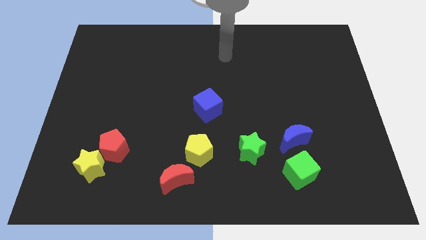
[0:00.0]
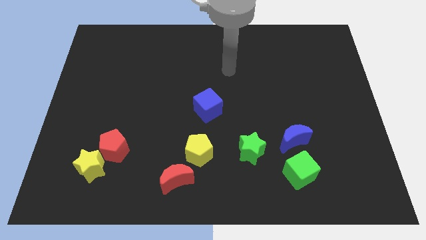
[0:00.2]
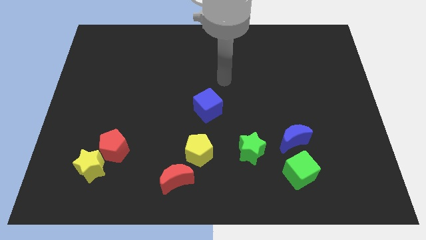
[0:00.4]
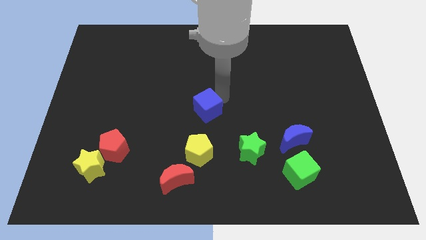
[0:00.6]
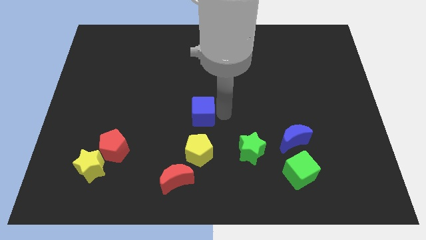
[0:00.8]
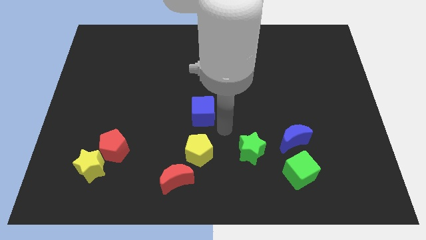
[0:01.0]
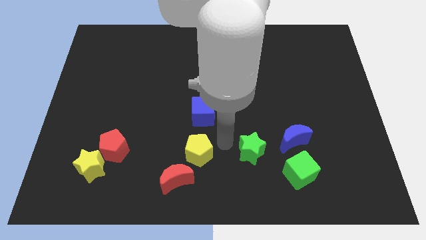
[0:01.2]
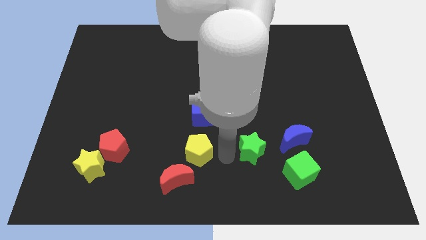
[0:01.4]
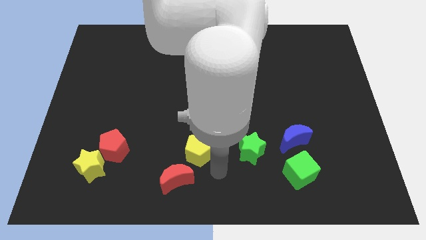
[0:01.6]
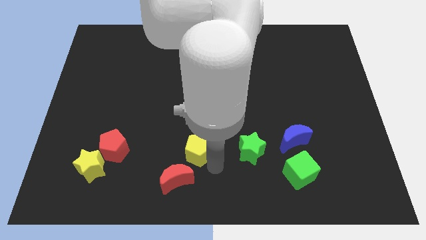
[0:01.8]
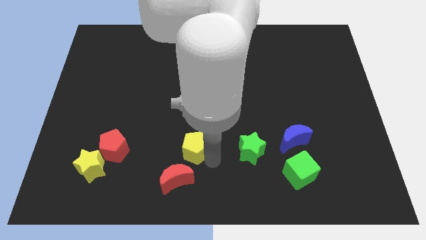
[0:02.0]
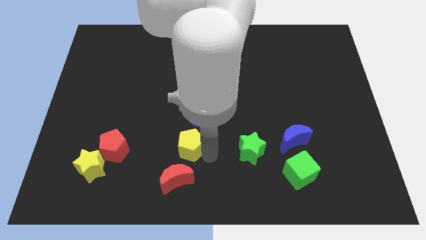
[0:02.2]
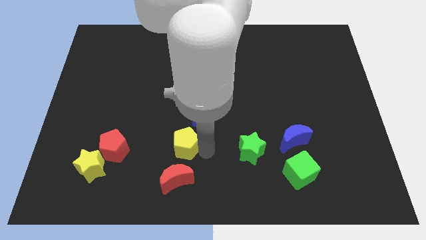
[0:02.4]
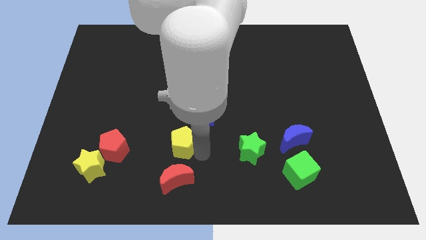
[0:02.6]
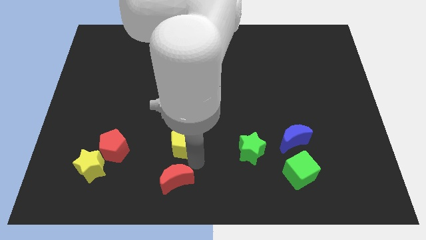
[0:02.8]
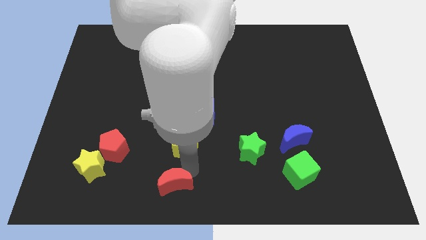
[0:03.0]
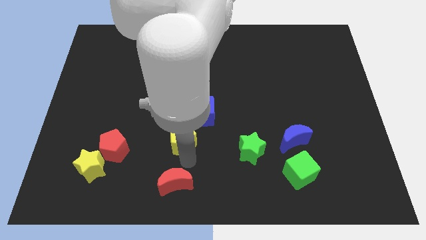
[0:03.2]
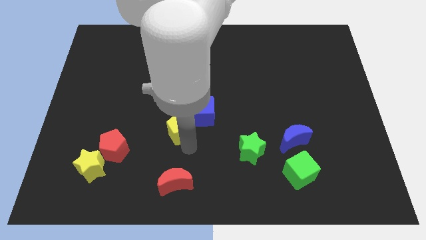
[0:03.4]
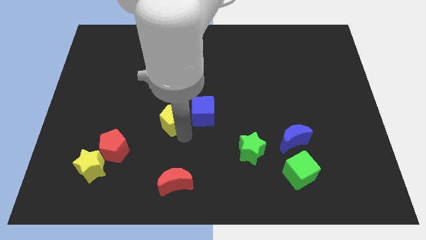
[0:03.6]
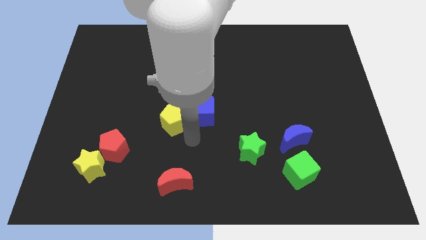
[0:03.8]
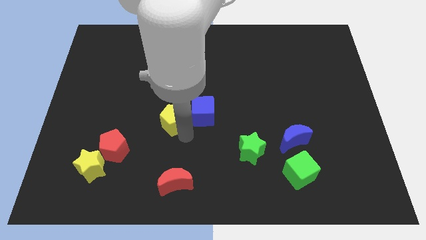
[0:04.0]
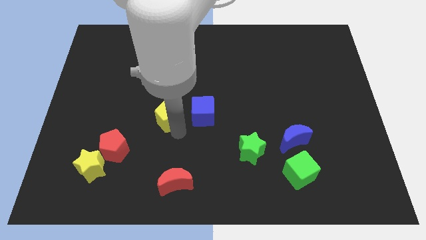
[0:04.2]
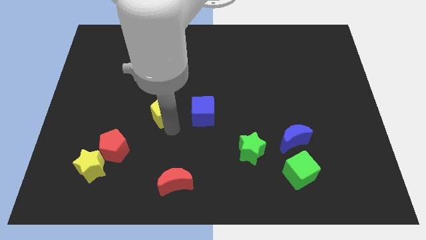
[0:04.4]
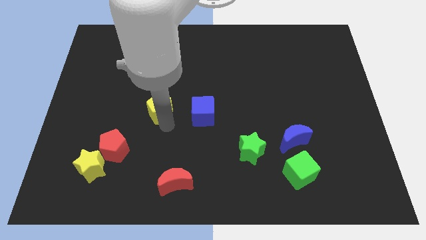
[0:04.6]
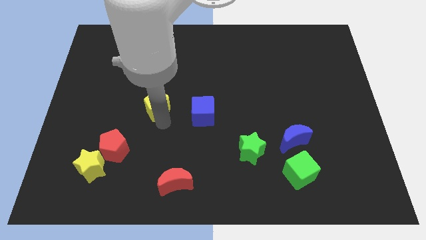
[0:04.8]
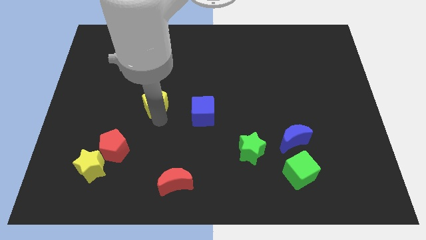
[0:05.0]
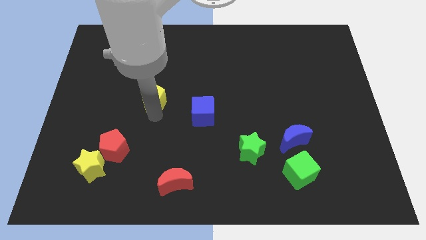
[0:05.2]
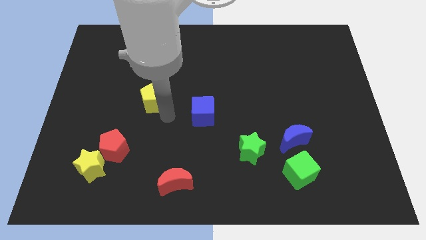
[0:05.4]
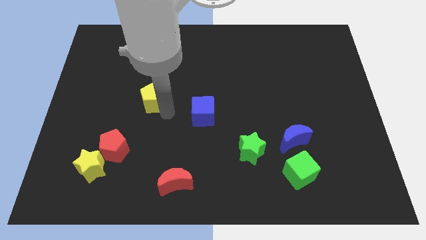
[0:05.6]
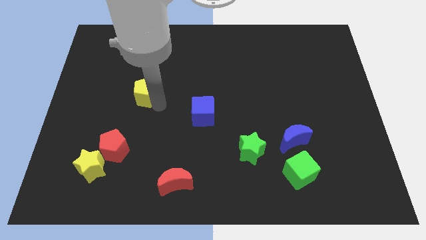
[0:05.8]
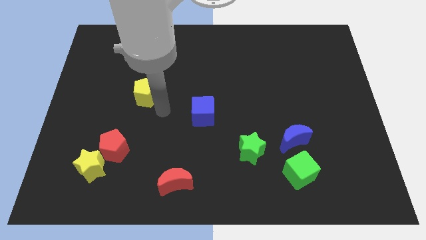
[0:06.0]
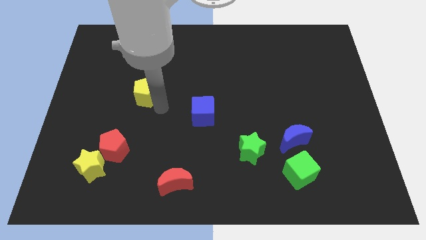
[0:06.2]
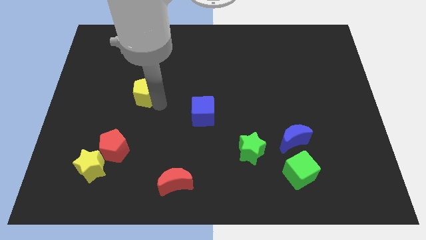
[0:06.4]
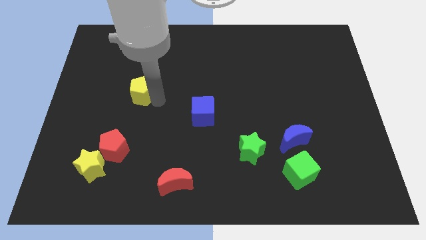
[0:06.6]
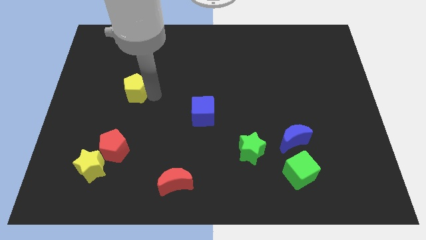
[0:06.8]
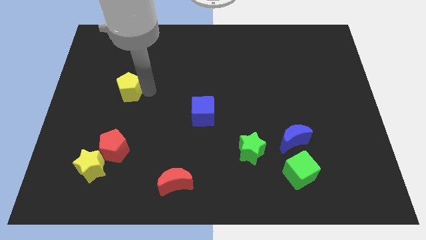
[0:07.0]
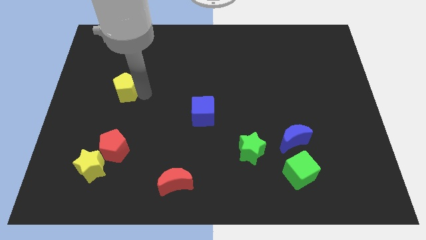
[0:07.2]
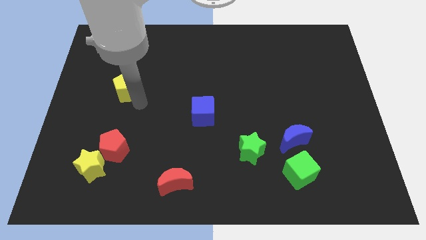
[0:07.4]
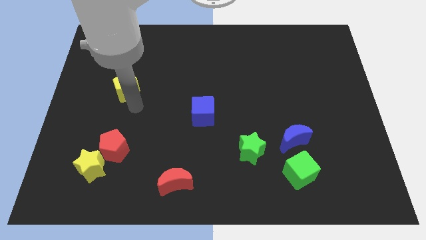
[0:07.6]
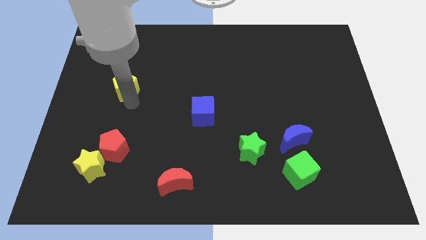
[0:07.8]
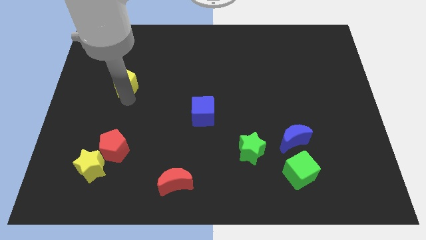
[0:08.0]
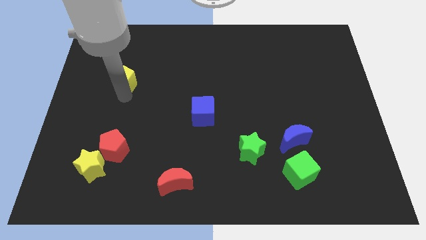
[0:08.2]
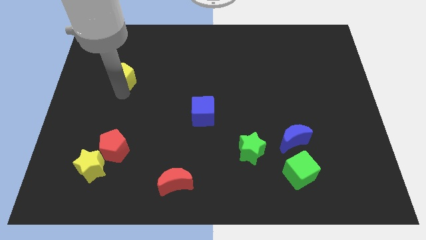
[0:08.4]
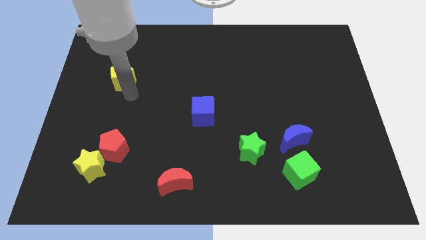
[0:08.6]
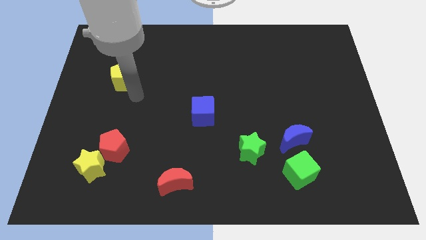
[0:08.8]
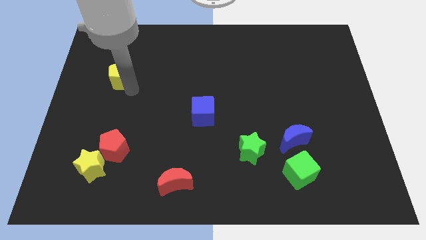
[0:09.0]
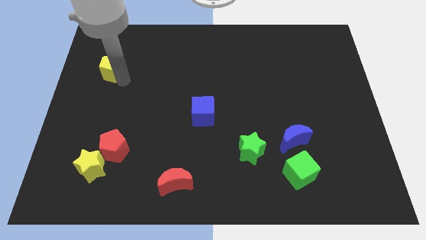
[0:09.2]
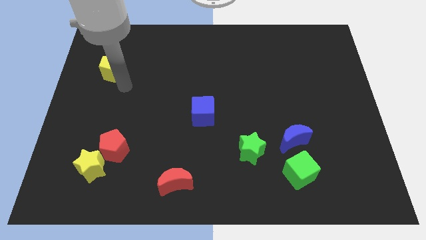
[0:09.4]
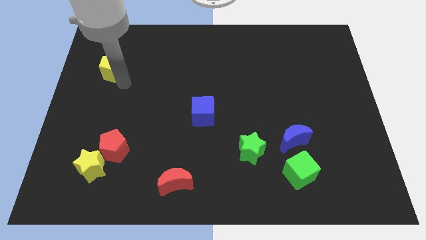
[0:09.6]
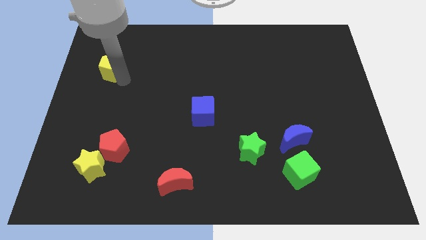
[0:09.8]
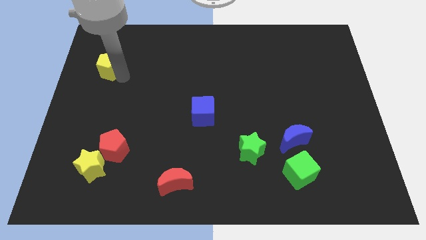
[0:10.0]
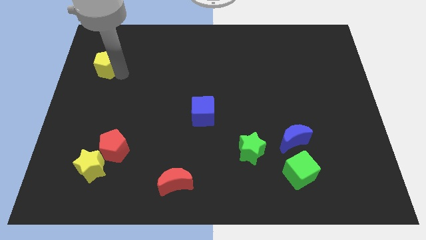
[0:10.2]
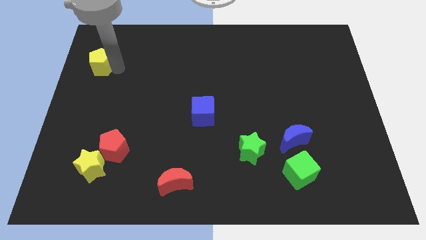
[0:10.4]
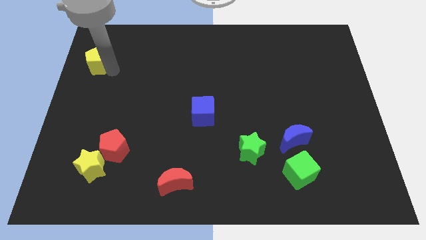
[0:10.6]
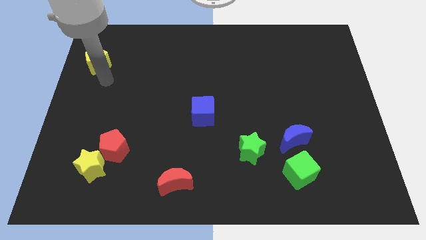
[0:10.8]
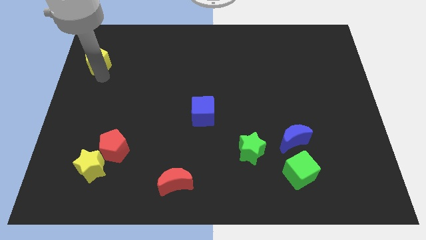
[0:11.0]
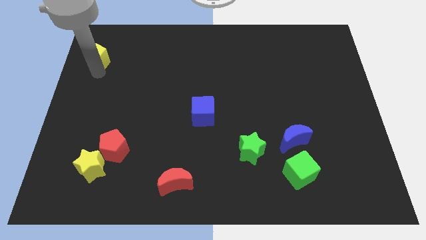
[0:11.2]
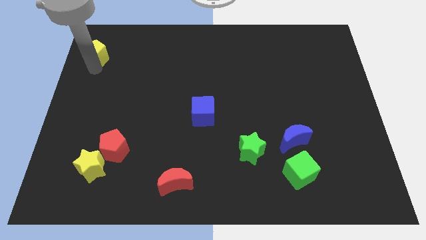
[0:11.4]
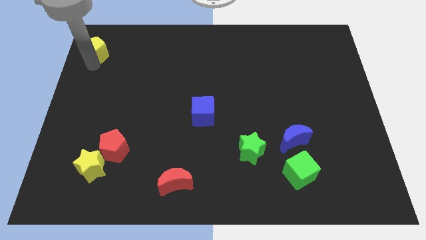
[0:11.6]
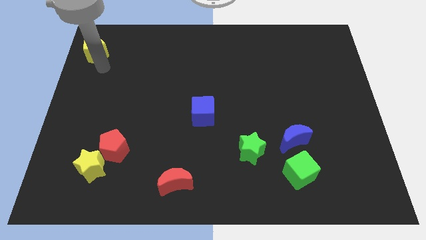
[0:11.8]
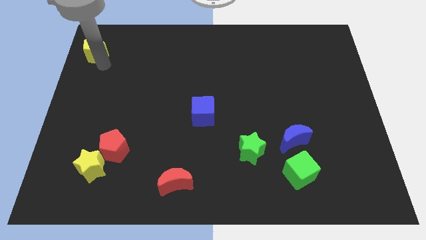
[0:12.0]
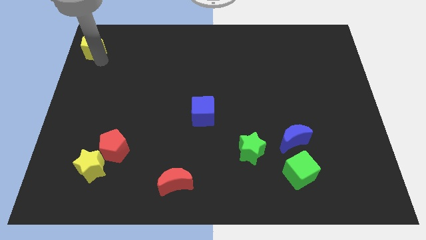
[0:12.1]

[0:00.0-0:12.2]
move the yellow pentagon to the top left corner

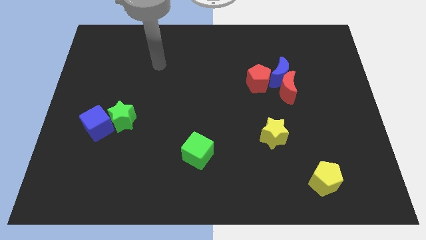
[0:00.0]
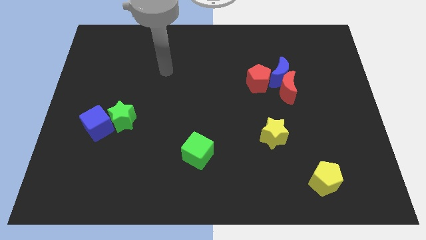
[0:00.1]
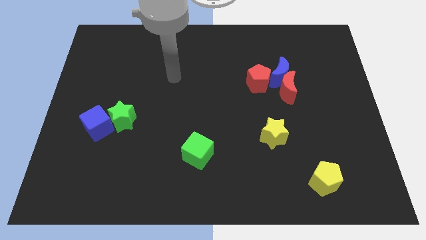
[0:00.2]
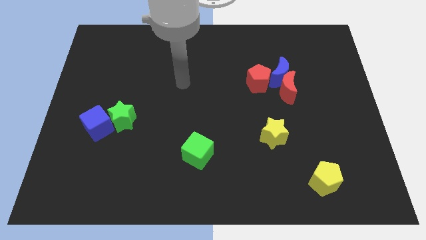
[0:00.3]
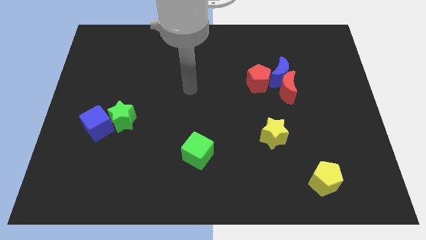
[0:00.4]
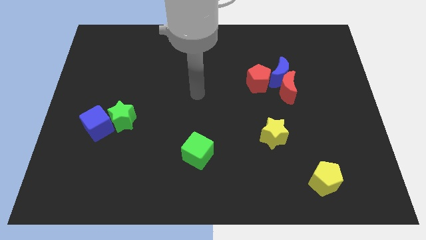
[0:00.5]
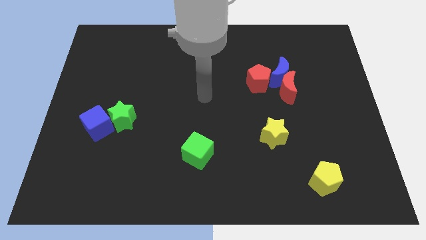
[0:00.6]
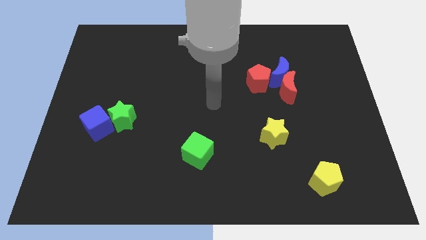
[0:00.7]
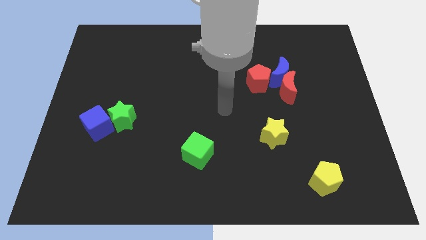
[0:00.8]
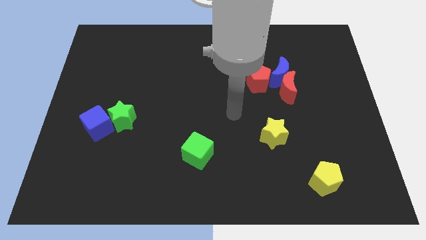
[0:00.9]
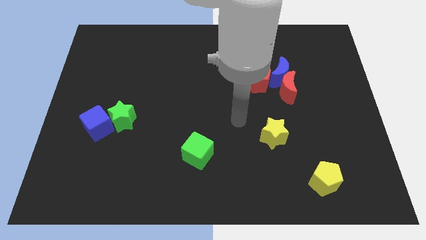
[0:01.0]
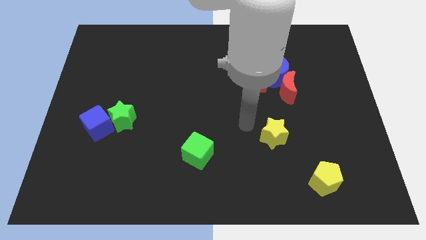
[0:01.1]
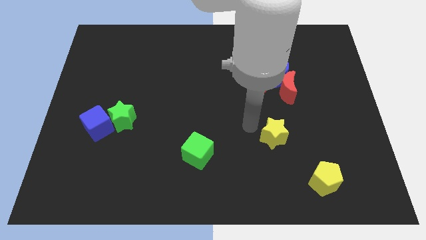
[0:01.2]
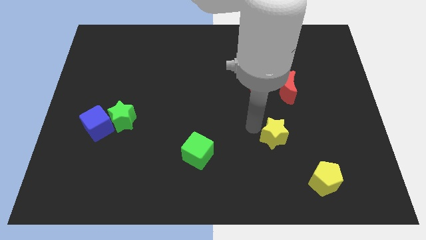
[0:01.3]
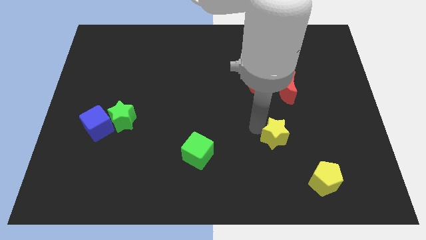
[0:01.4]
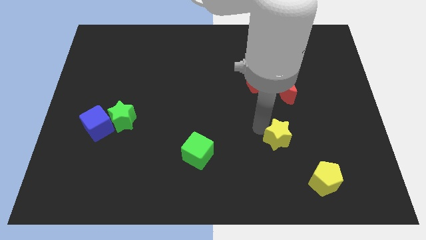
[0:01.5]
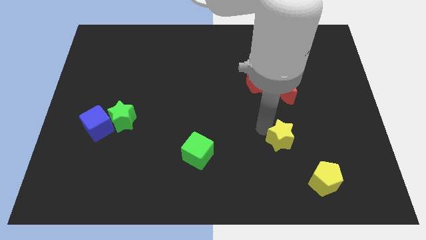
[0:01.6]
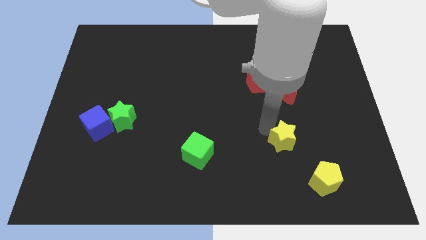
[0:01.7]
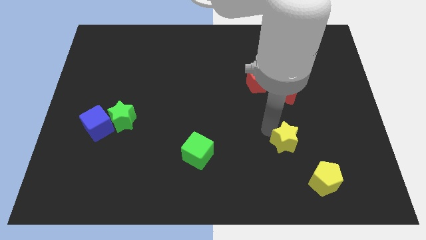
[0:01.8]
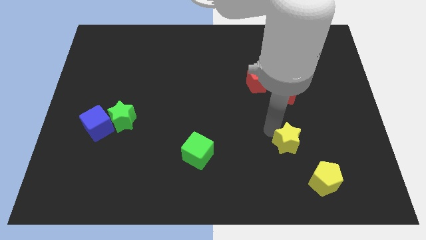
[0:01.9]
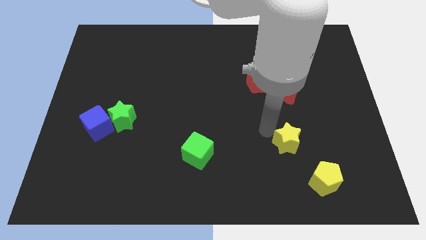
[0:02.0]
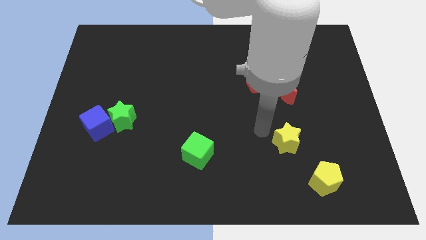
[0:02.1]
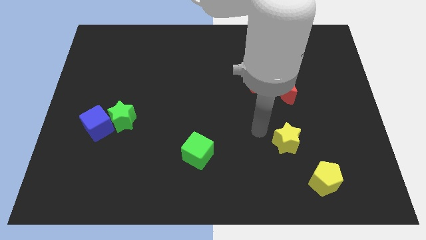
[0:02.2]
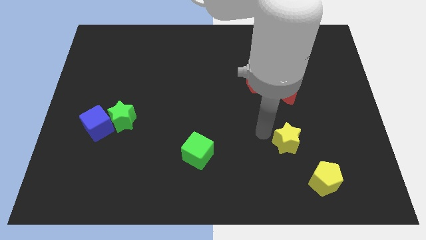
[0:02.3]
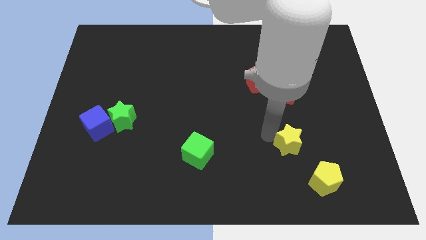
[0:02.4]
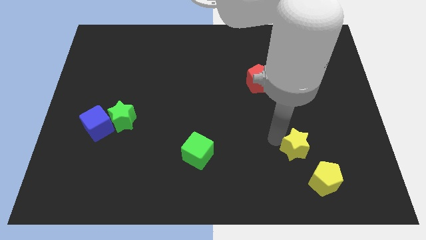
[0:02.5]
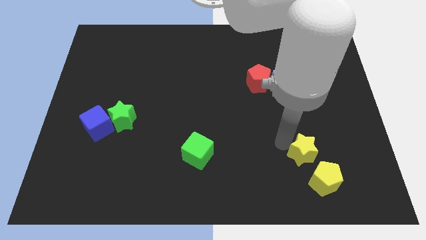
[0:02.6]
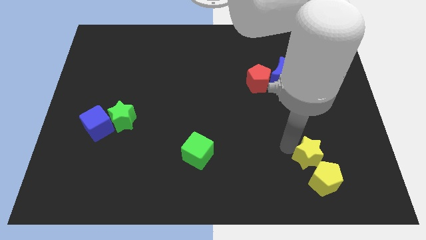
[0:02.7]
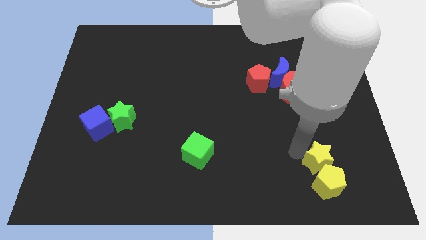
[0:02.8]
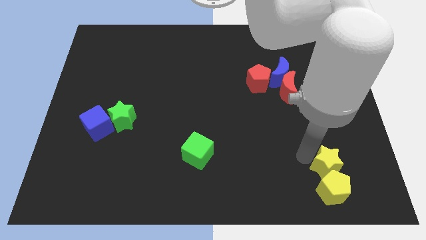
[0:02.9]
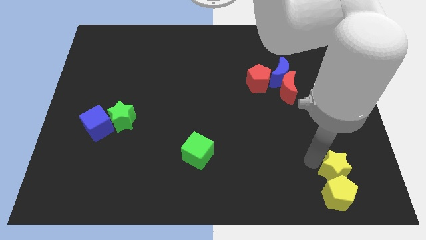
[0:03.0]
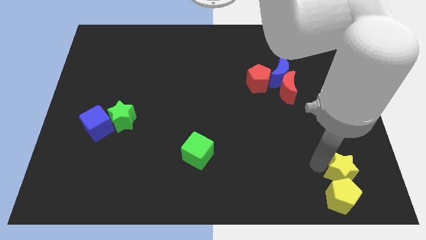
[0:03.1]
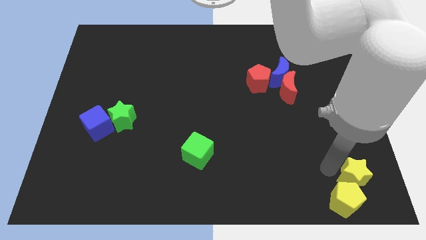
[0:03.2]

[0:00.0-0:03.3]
slide the yellow star to the bottom right of the board
